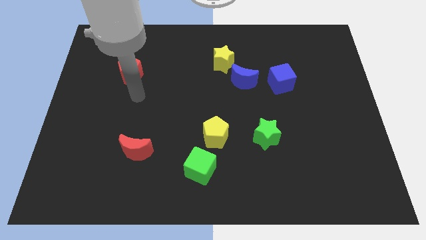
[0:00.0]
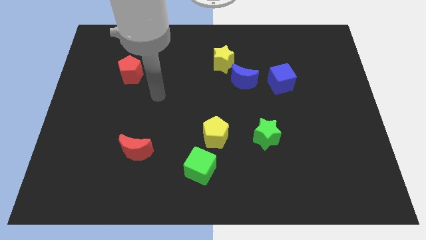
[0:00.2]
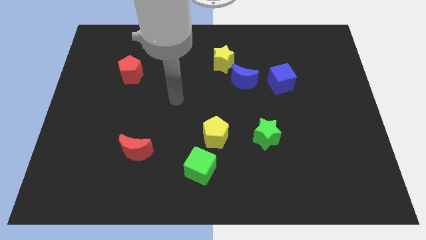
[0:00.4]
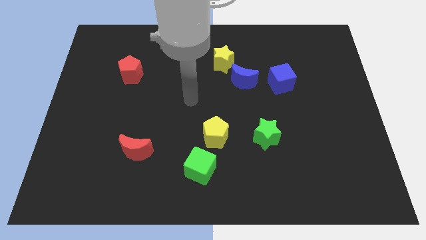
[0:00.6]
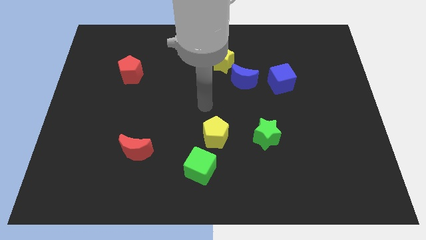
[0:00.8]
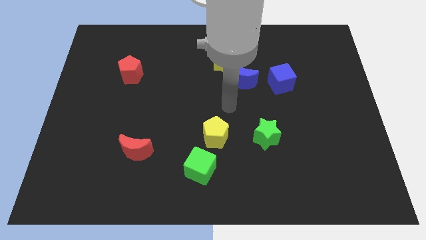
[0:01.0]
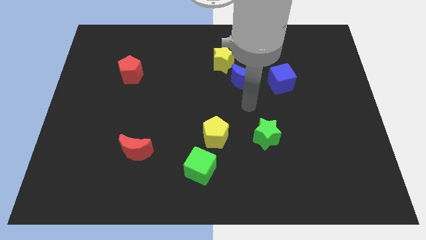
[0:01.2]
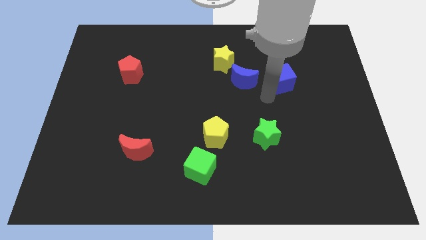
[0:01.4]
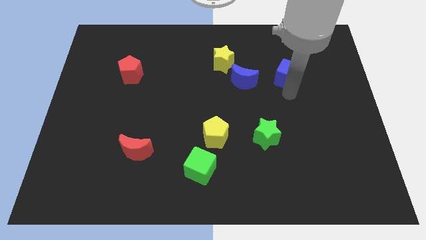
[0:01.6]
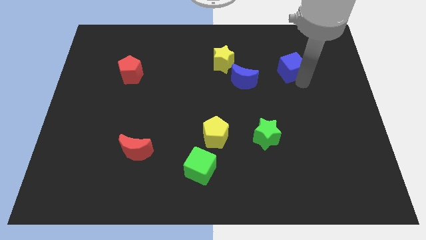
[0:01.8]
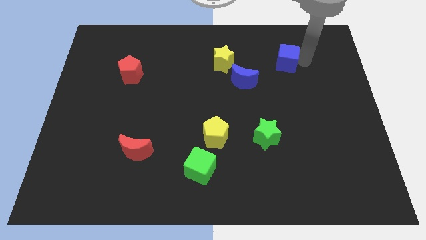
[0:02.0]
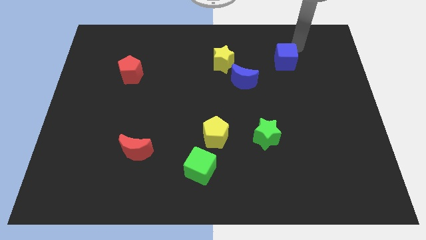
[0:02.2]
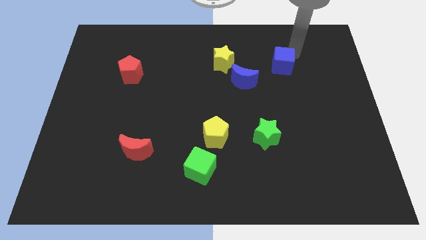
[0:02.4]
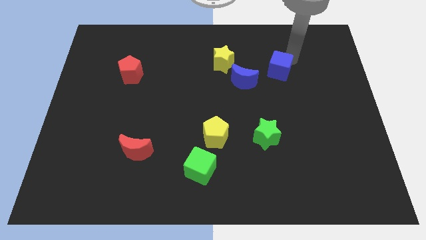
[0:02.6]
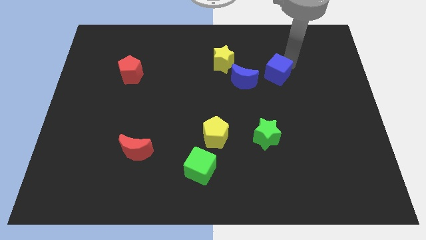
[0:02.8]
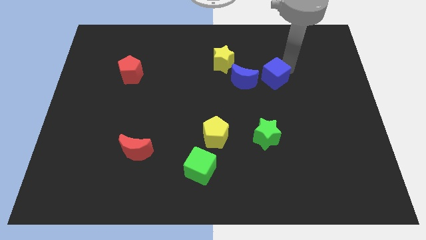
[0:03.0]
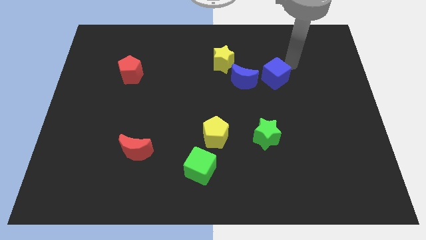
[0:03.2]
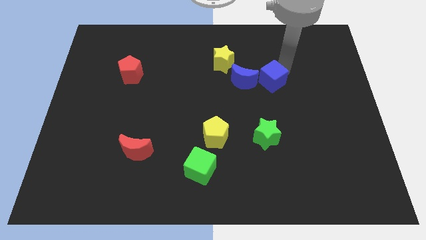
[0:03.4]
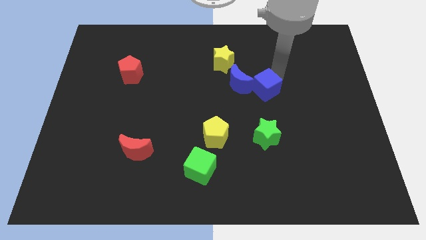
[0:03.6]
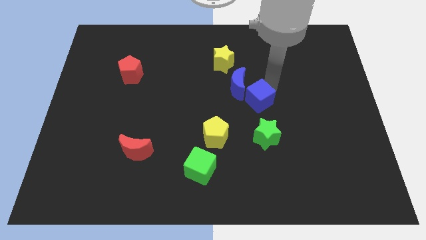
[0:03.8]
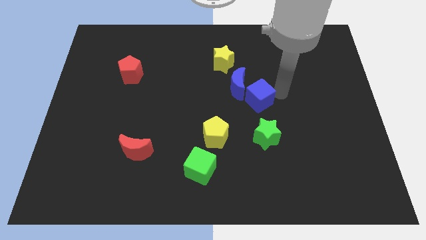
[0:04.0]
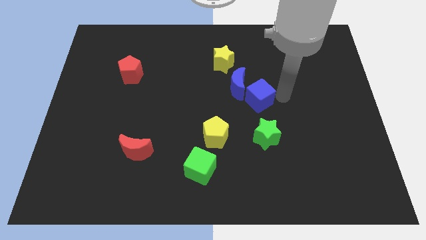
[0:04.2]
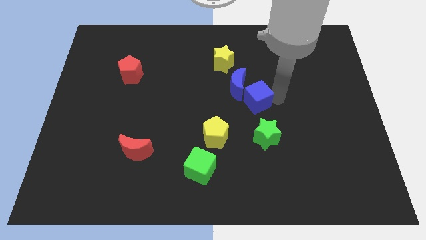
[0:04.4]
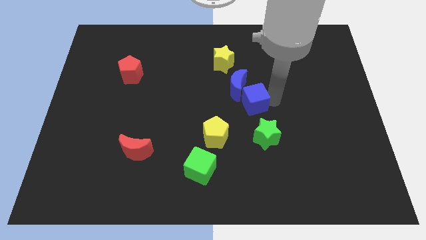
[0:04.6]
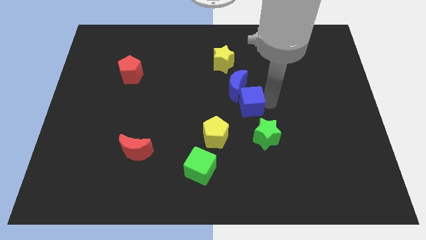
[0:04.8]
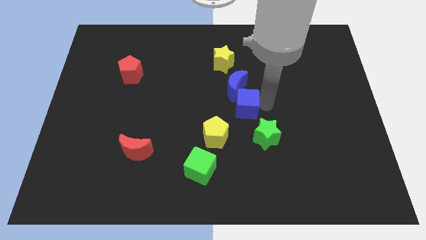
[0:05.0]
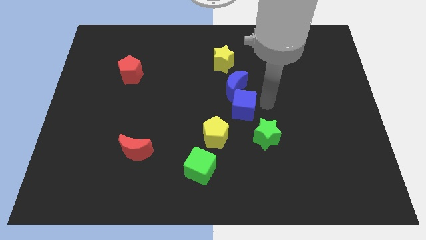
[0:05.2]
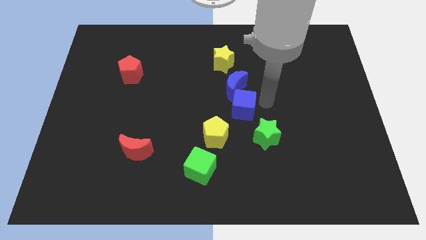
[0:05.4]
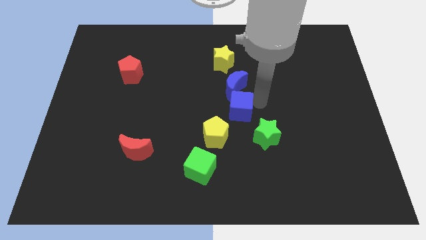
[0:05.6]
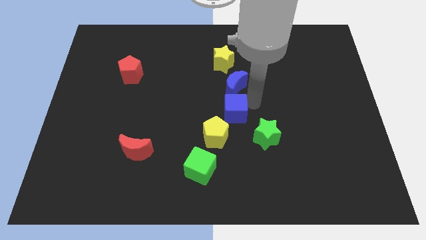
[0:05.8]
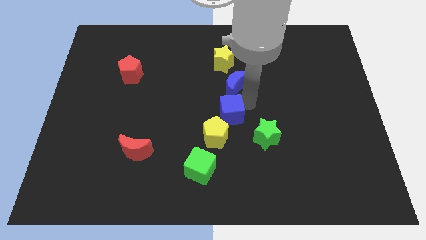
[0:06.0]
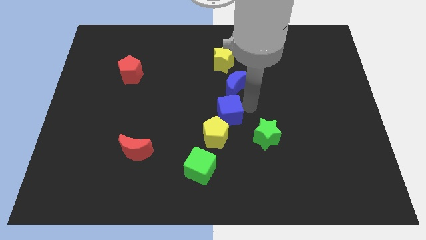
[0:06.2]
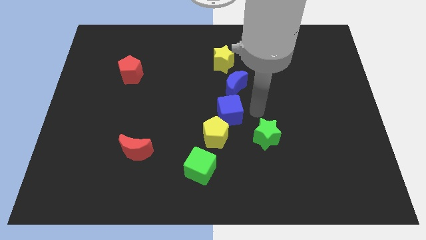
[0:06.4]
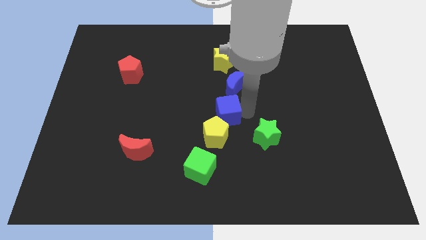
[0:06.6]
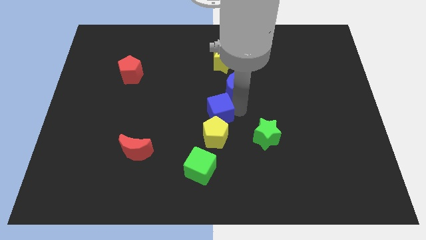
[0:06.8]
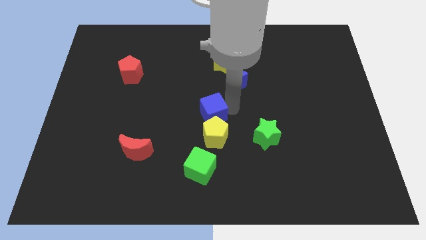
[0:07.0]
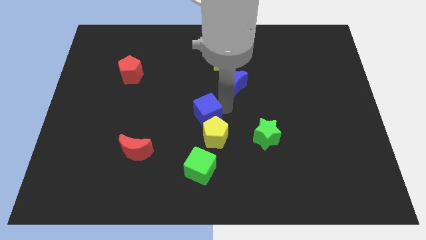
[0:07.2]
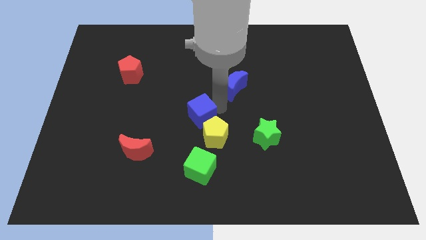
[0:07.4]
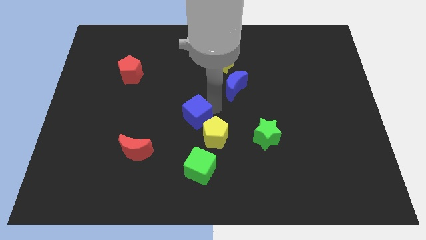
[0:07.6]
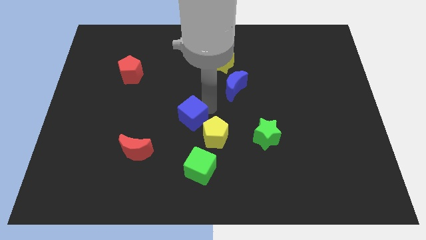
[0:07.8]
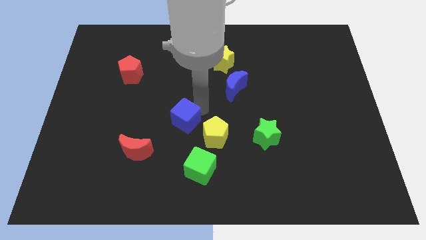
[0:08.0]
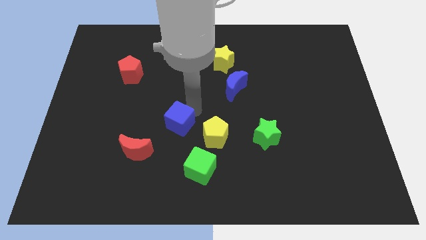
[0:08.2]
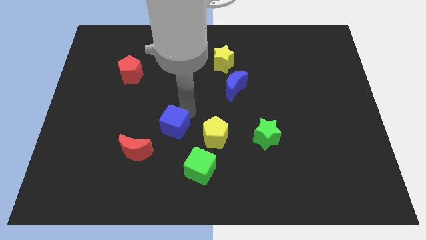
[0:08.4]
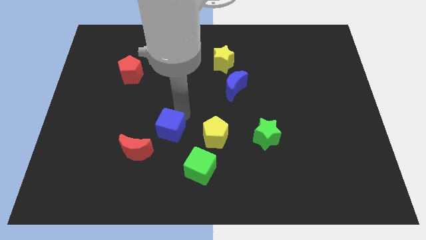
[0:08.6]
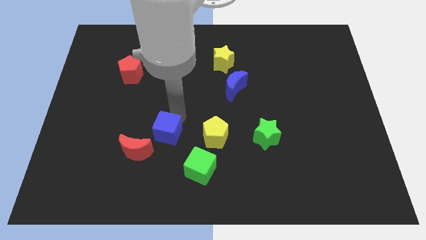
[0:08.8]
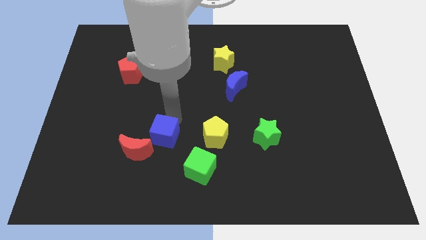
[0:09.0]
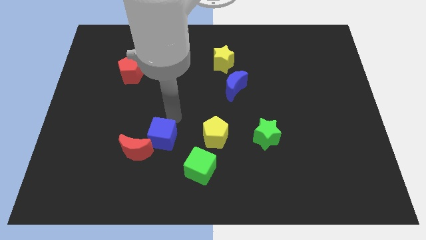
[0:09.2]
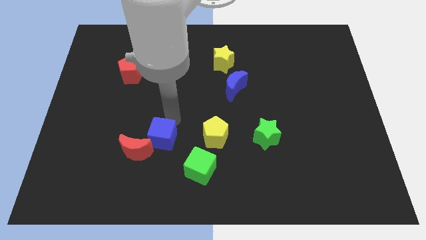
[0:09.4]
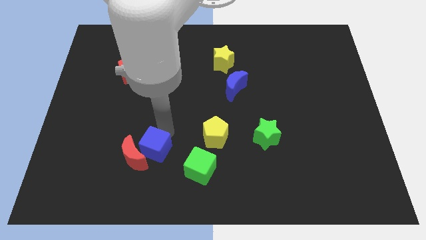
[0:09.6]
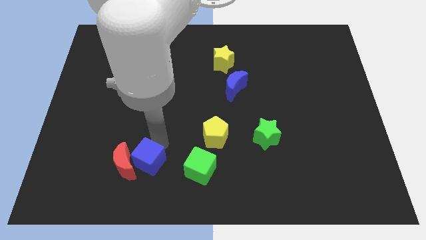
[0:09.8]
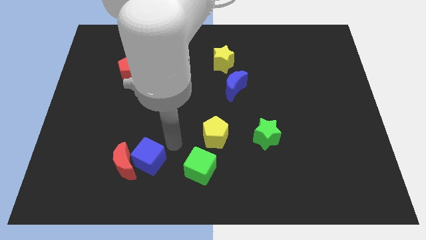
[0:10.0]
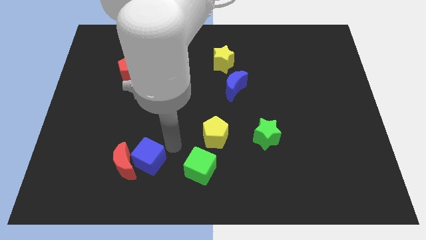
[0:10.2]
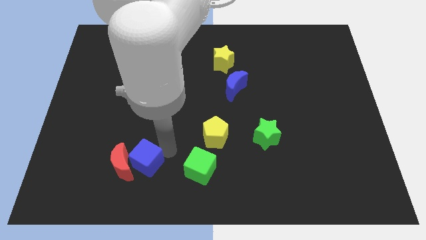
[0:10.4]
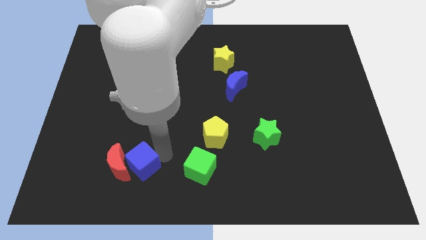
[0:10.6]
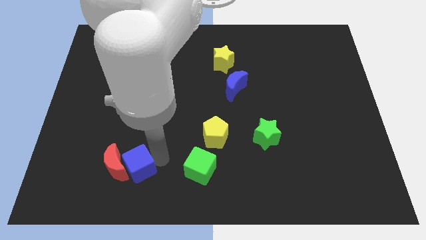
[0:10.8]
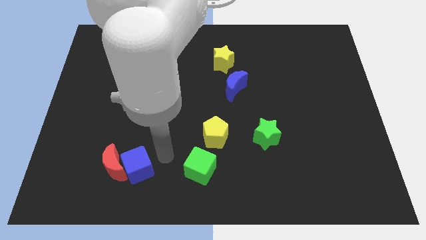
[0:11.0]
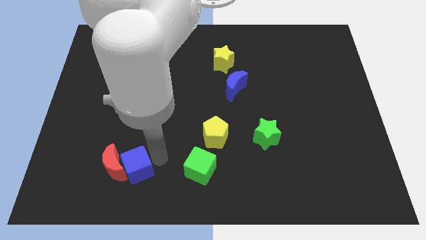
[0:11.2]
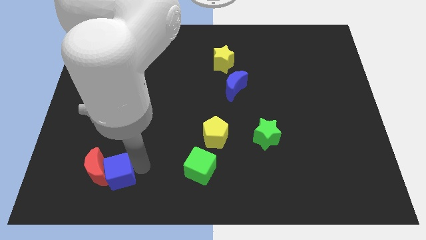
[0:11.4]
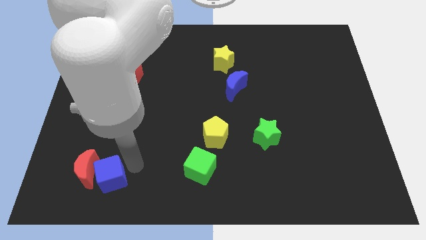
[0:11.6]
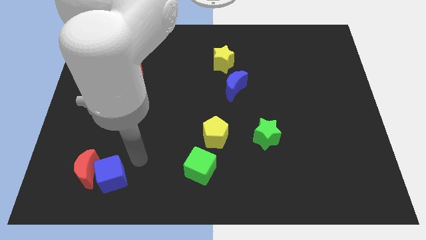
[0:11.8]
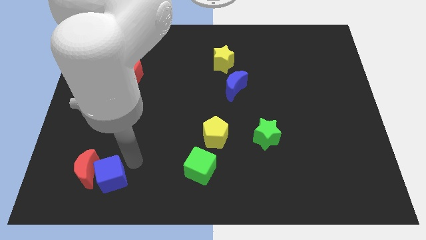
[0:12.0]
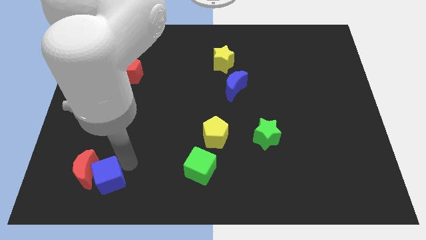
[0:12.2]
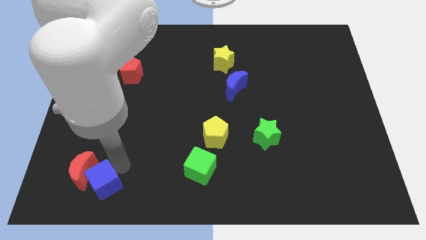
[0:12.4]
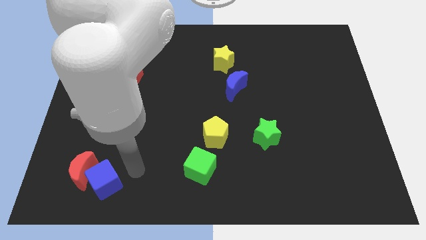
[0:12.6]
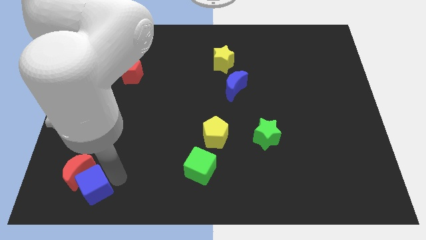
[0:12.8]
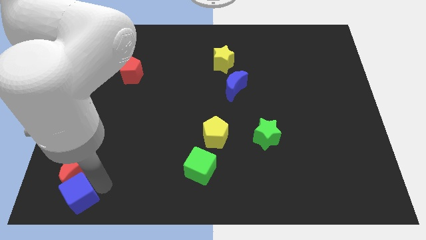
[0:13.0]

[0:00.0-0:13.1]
push the blue cube to the bottom left corner

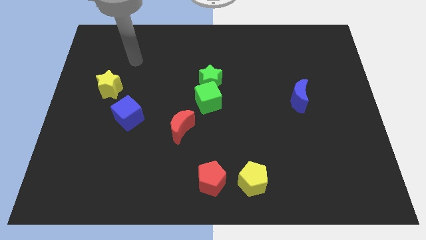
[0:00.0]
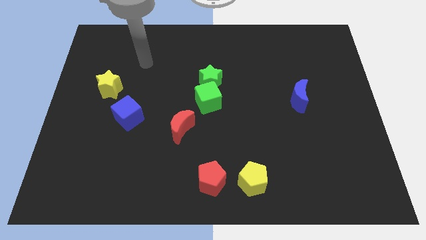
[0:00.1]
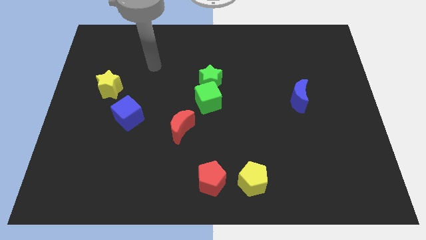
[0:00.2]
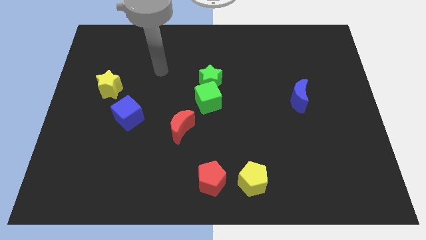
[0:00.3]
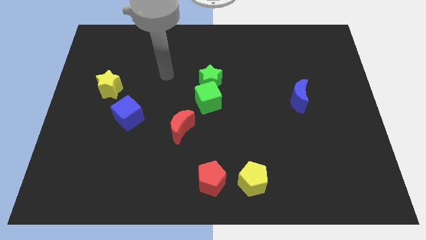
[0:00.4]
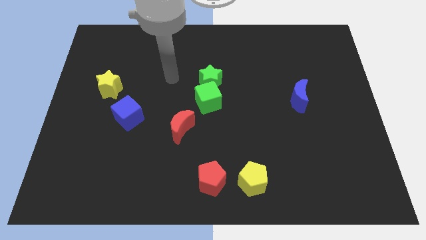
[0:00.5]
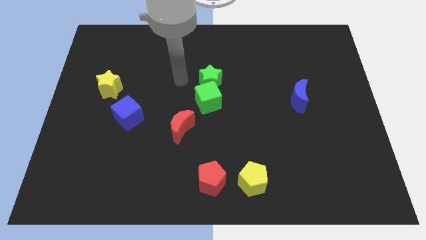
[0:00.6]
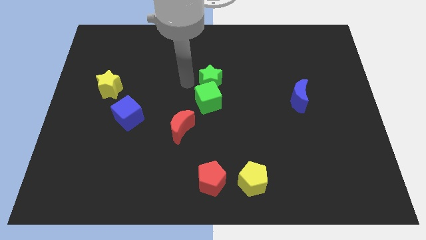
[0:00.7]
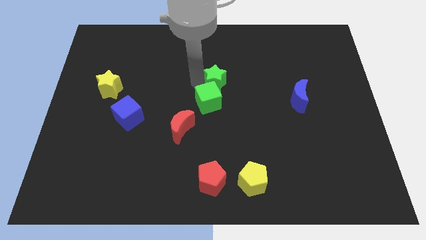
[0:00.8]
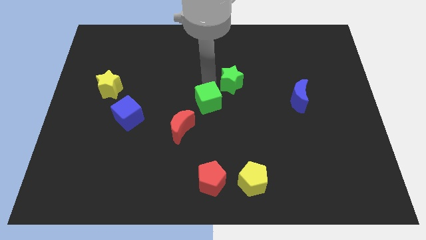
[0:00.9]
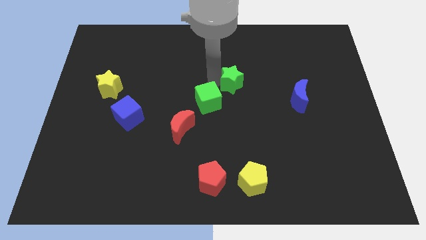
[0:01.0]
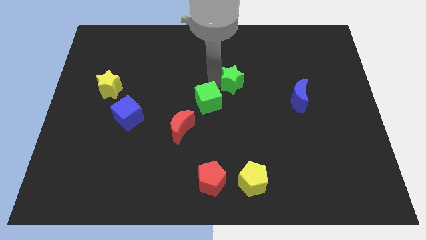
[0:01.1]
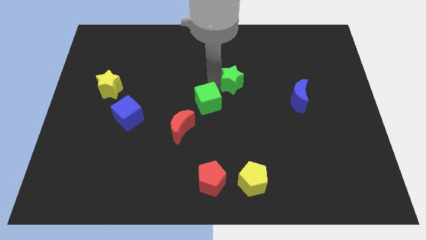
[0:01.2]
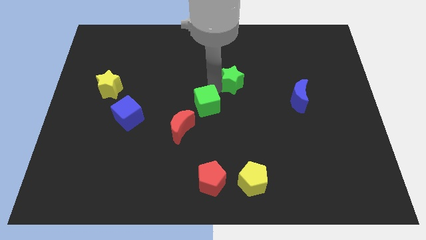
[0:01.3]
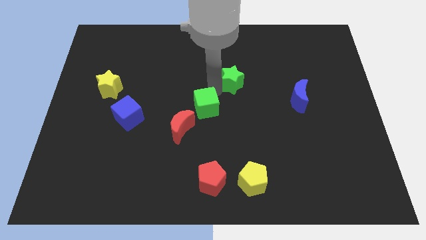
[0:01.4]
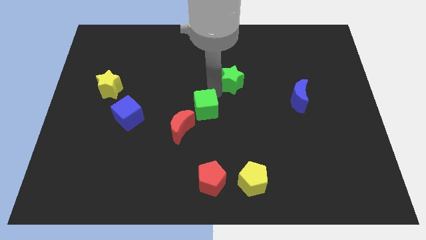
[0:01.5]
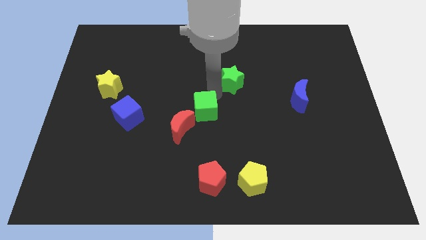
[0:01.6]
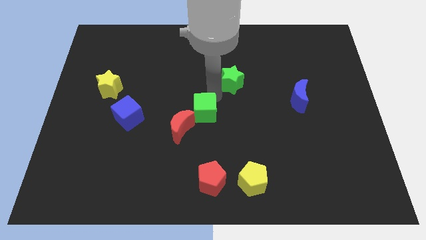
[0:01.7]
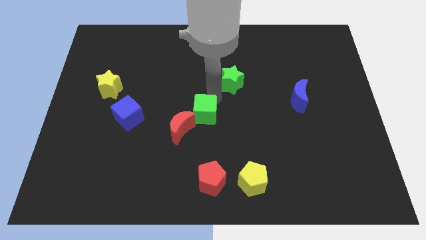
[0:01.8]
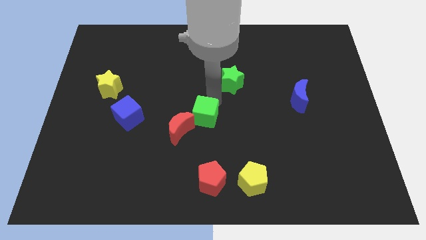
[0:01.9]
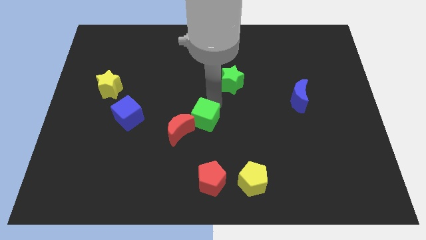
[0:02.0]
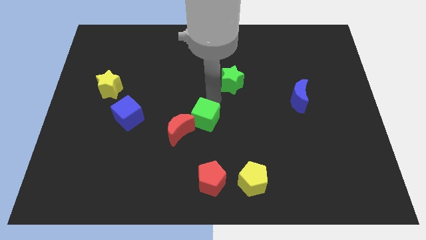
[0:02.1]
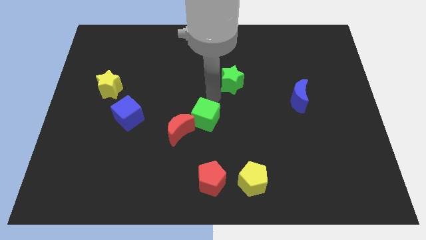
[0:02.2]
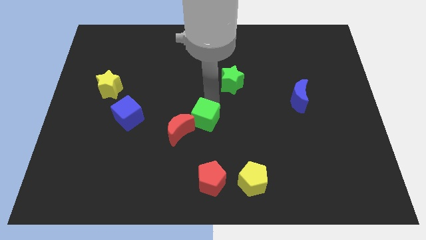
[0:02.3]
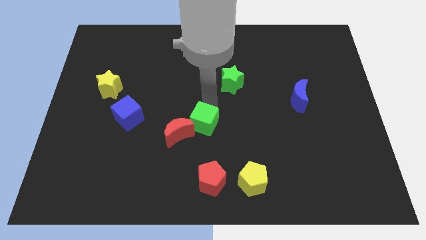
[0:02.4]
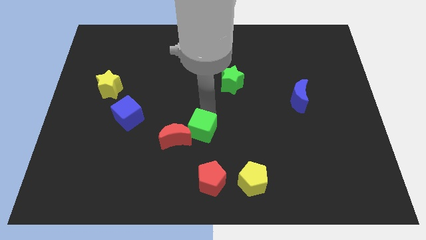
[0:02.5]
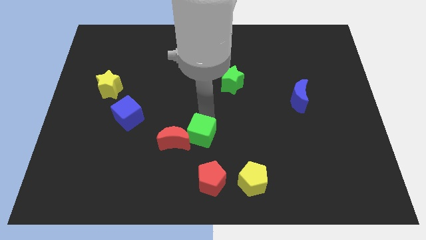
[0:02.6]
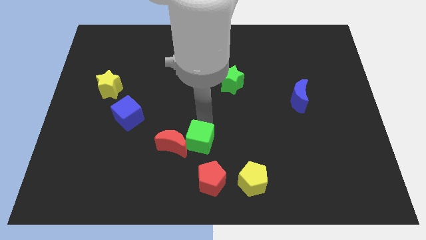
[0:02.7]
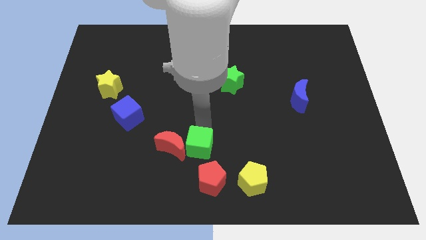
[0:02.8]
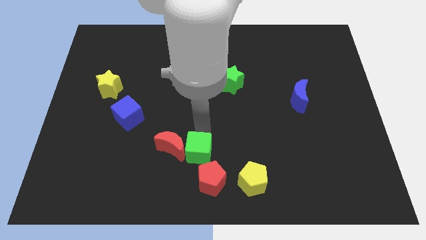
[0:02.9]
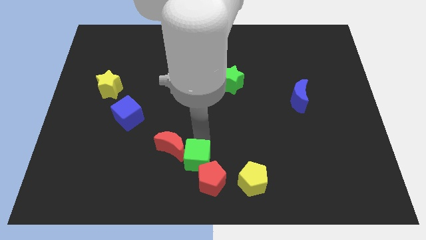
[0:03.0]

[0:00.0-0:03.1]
push the green cube to the bottom
